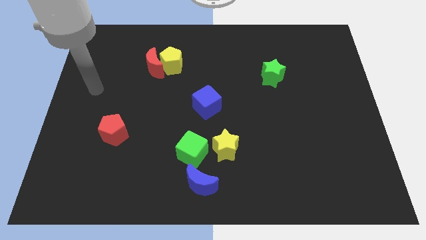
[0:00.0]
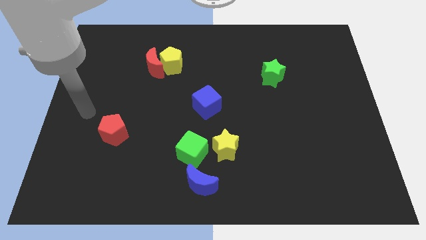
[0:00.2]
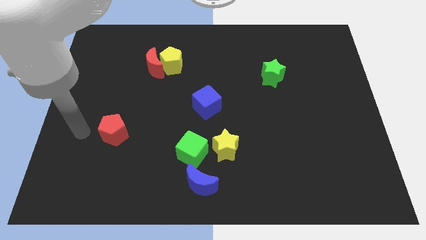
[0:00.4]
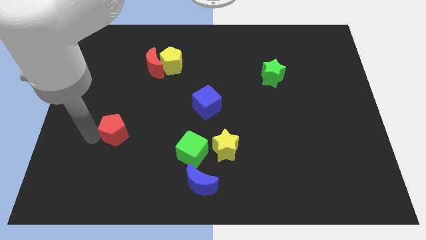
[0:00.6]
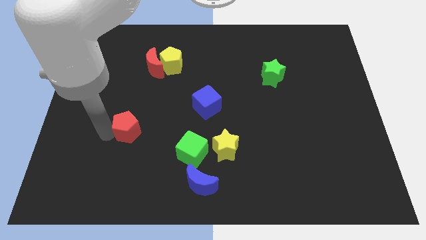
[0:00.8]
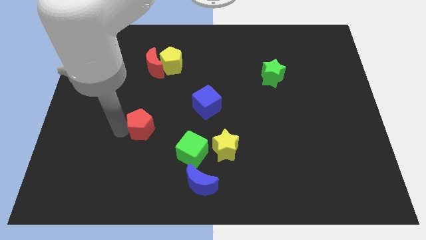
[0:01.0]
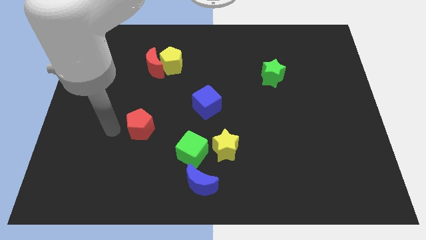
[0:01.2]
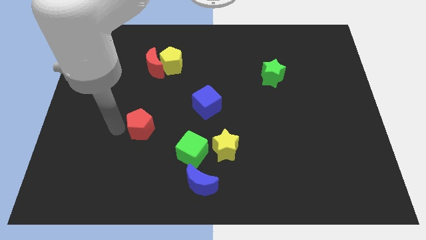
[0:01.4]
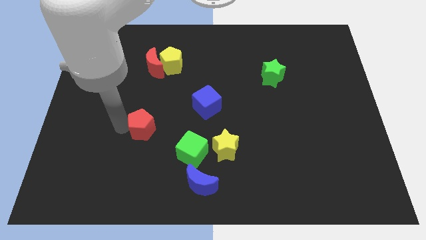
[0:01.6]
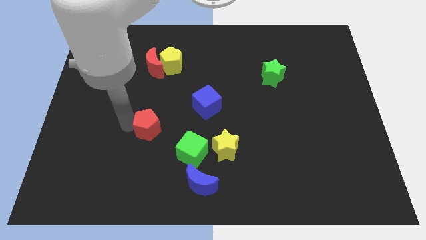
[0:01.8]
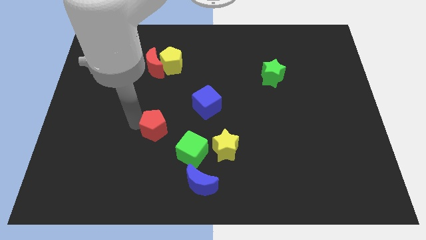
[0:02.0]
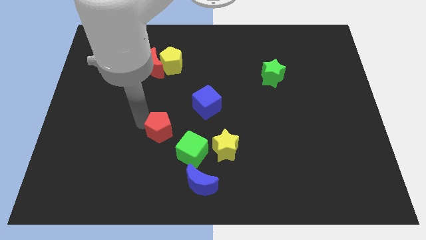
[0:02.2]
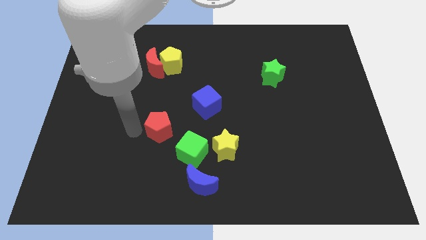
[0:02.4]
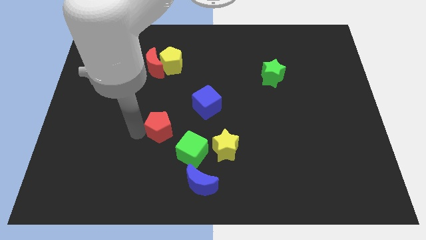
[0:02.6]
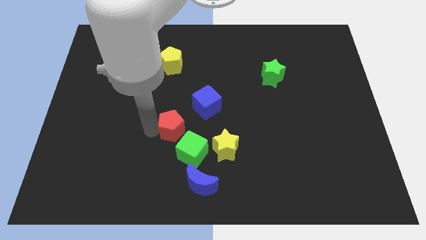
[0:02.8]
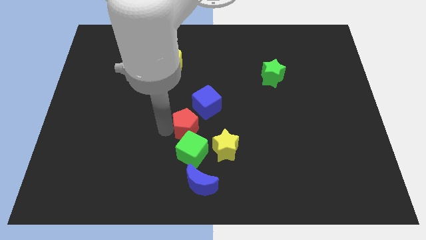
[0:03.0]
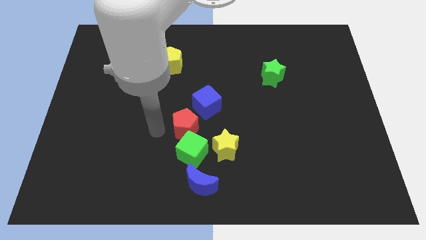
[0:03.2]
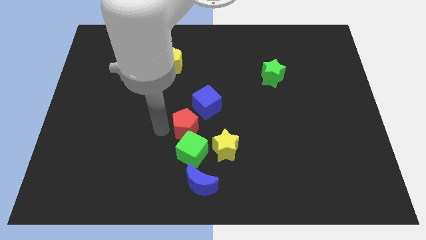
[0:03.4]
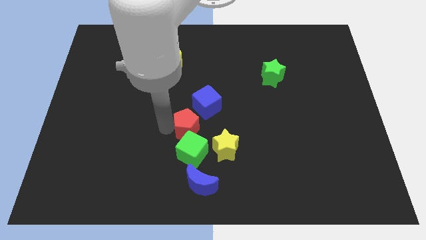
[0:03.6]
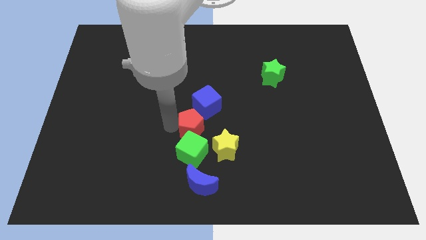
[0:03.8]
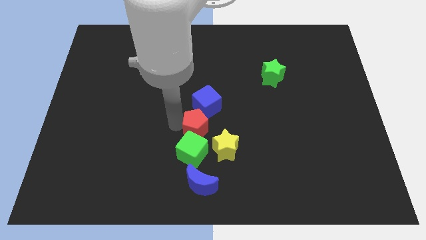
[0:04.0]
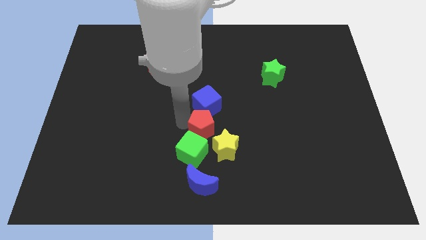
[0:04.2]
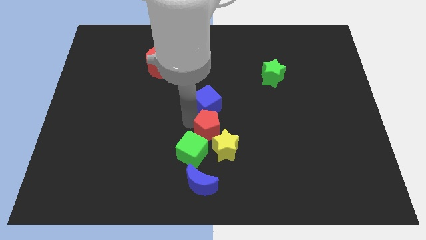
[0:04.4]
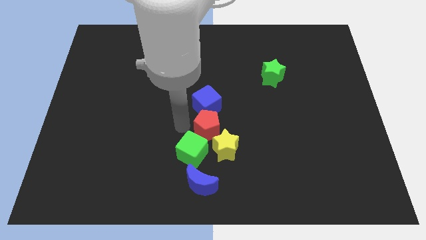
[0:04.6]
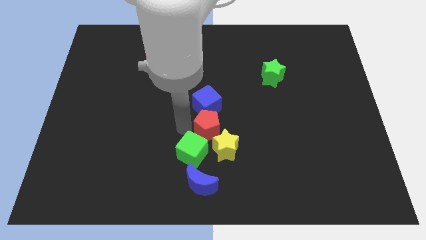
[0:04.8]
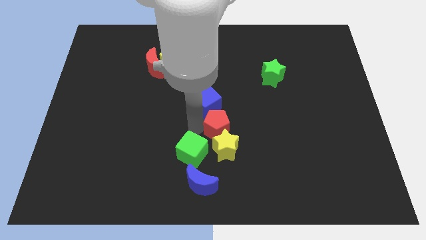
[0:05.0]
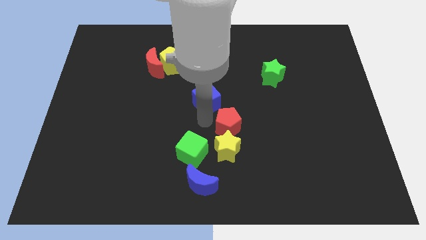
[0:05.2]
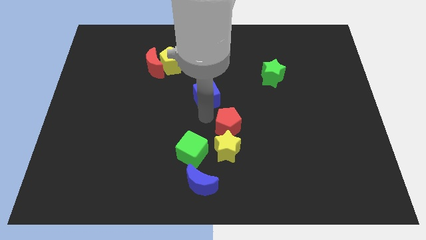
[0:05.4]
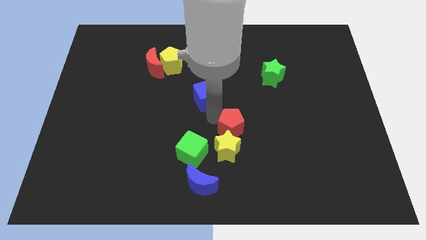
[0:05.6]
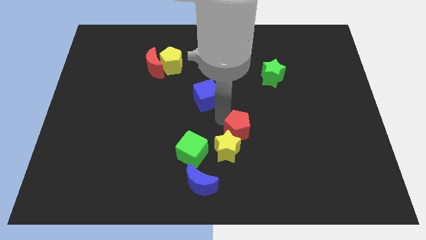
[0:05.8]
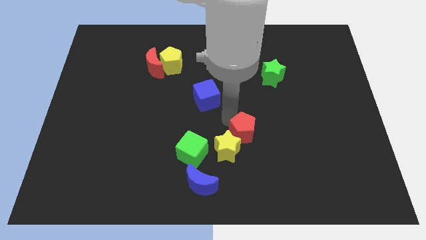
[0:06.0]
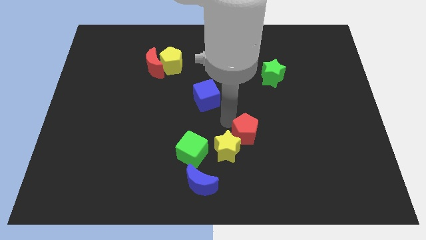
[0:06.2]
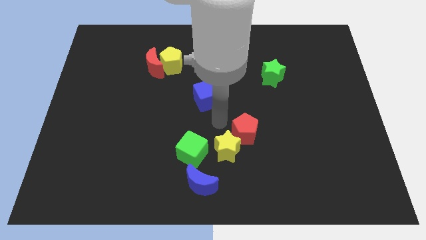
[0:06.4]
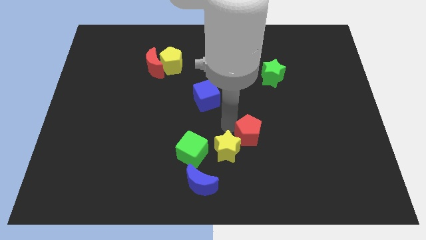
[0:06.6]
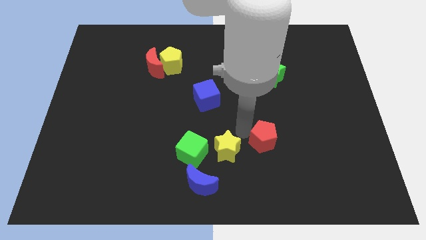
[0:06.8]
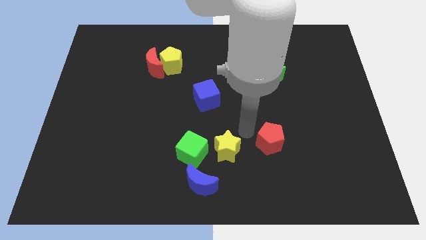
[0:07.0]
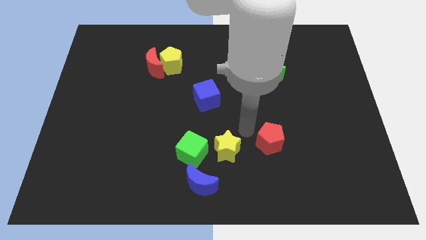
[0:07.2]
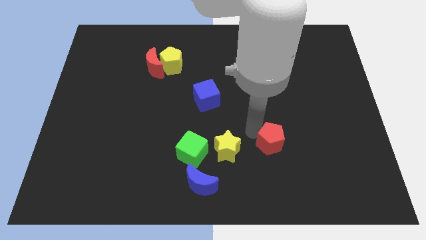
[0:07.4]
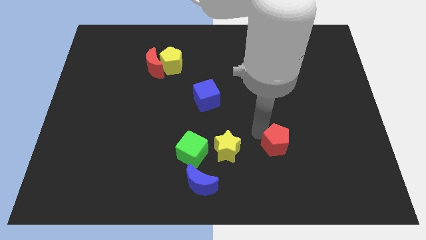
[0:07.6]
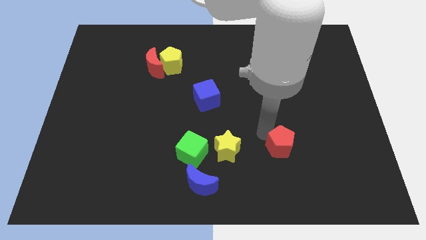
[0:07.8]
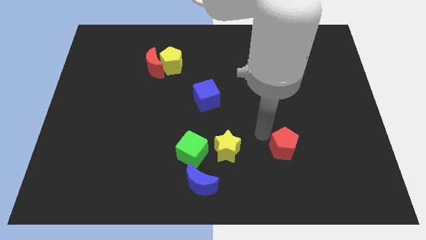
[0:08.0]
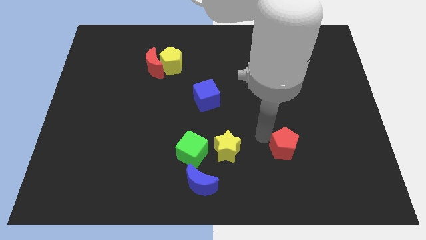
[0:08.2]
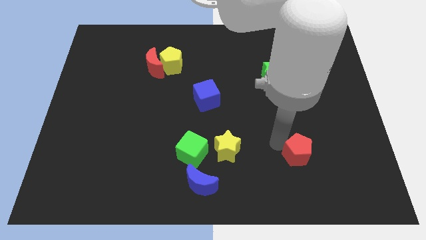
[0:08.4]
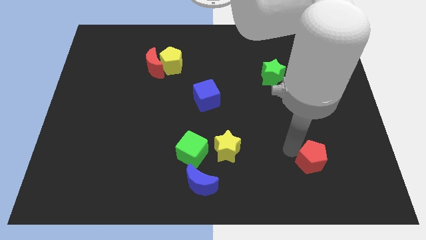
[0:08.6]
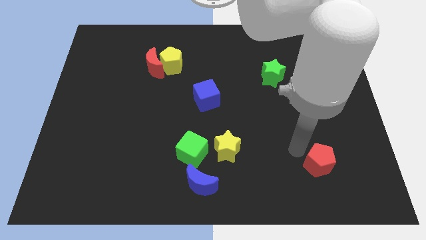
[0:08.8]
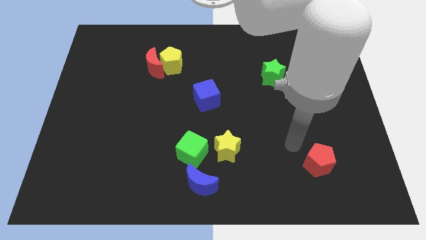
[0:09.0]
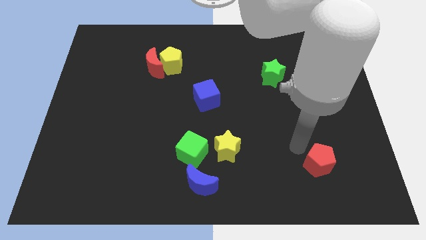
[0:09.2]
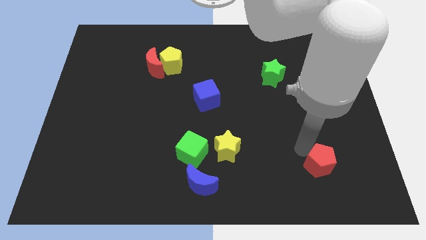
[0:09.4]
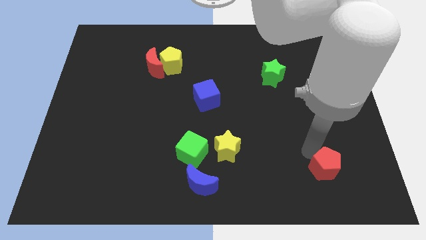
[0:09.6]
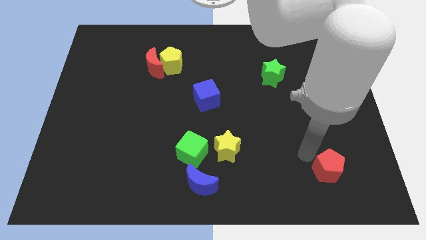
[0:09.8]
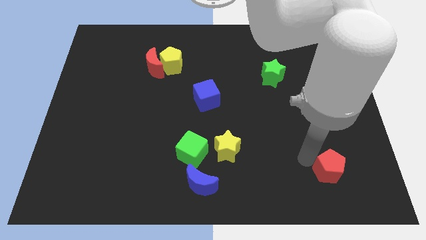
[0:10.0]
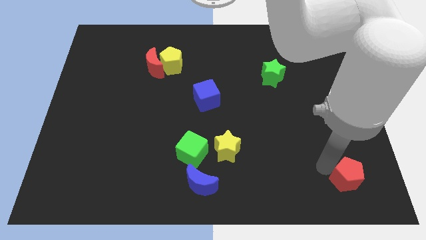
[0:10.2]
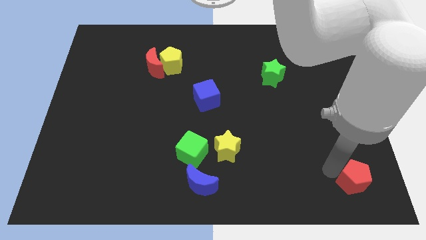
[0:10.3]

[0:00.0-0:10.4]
move the red pentagon to the bottom right of the board

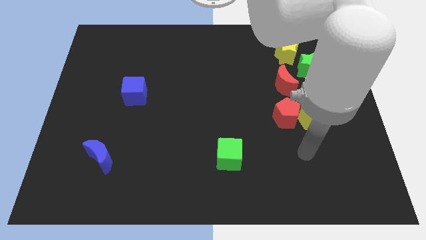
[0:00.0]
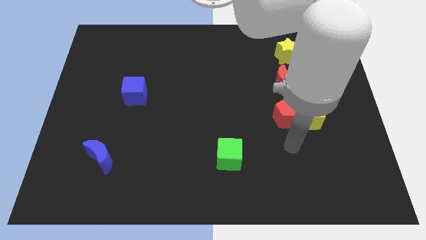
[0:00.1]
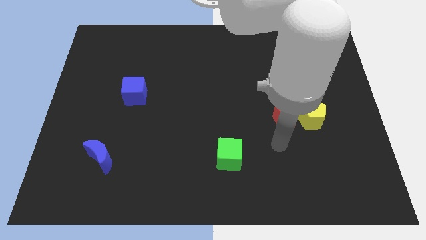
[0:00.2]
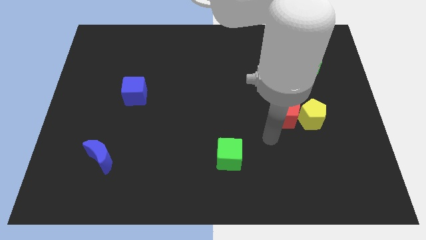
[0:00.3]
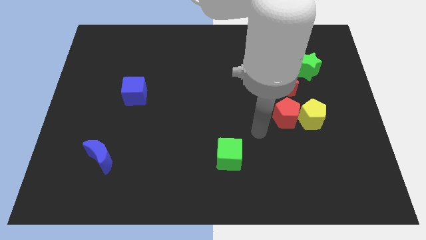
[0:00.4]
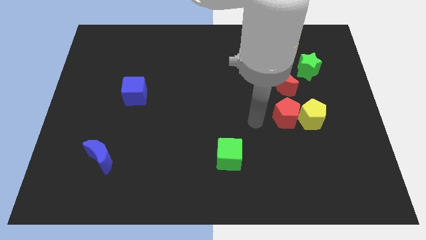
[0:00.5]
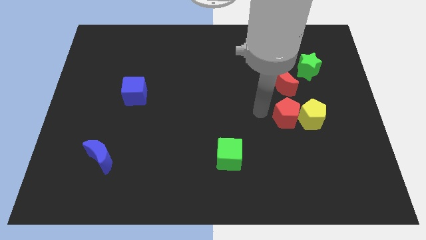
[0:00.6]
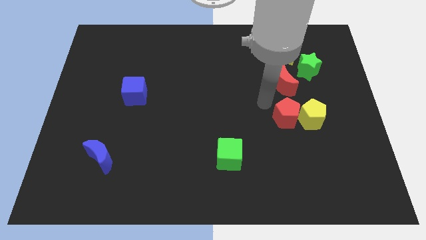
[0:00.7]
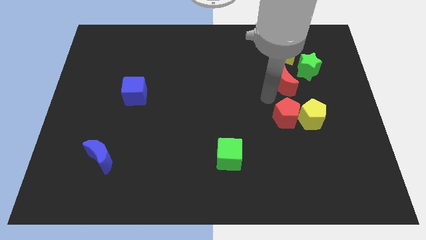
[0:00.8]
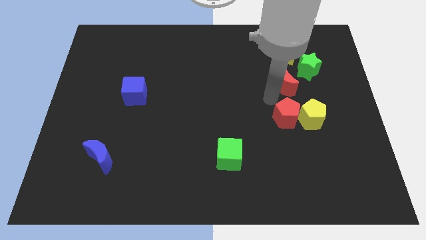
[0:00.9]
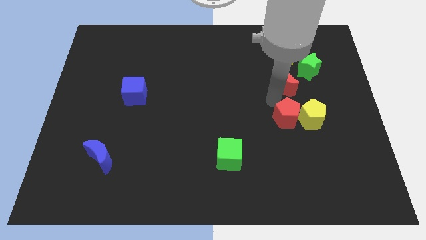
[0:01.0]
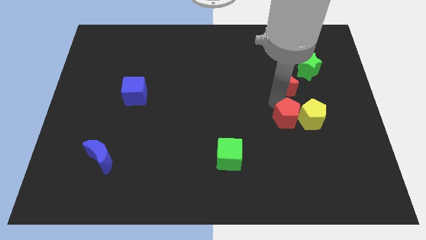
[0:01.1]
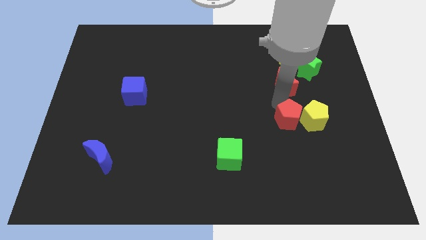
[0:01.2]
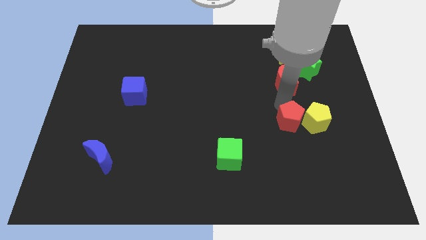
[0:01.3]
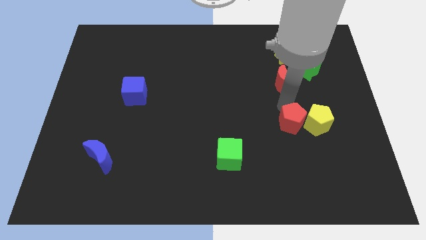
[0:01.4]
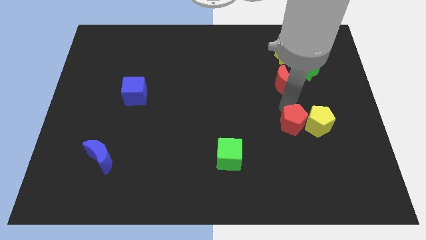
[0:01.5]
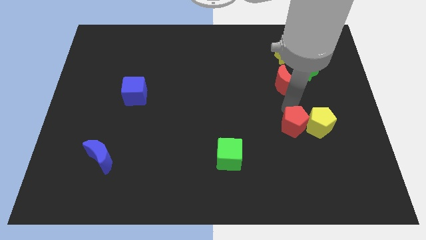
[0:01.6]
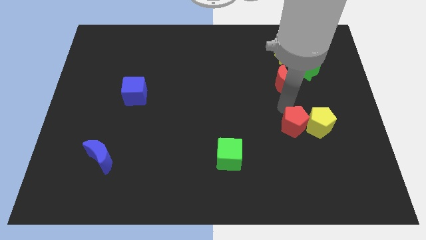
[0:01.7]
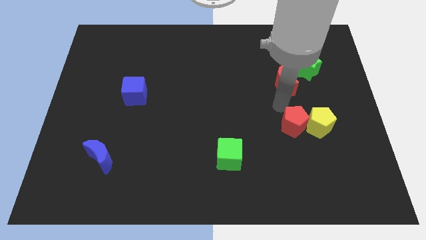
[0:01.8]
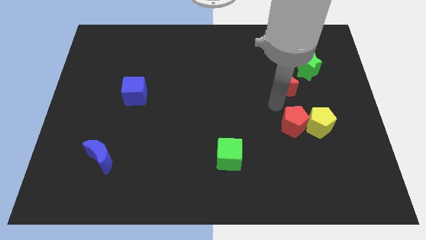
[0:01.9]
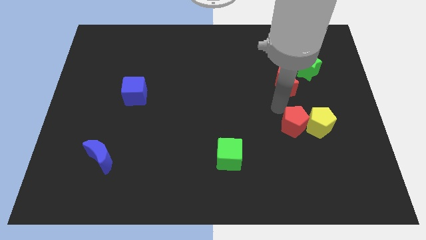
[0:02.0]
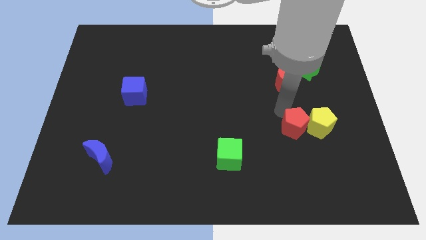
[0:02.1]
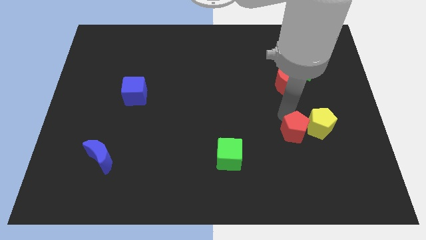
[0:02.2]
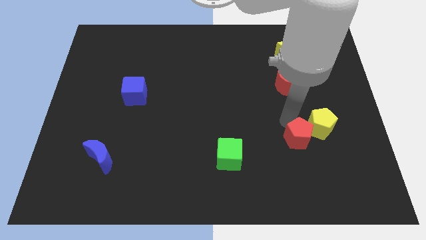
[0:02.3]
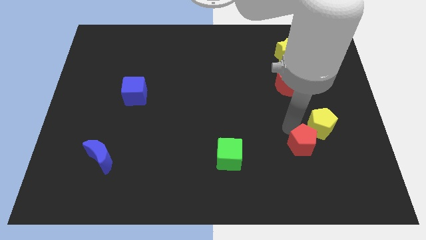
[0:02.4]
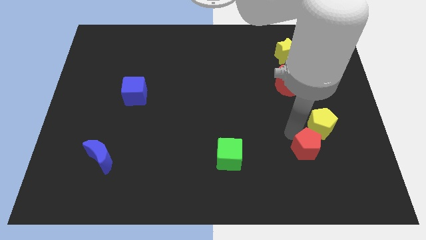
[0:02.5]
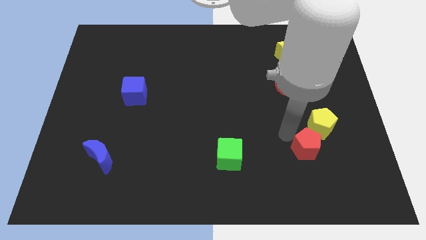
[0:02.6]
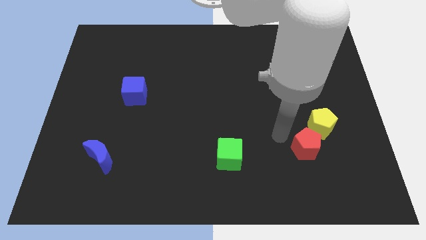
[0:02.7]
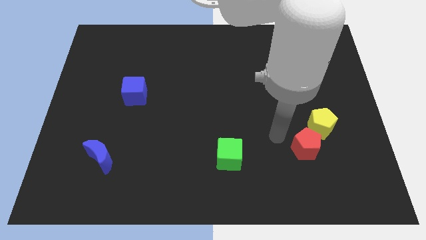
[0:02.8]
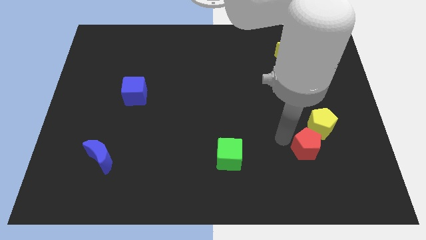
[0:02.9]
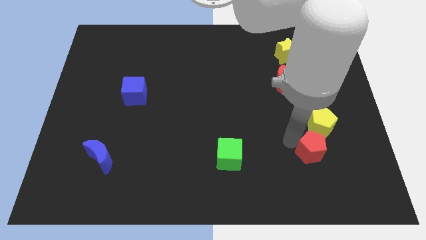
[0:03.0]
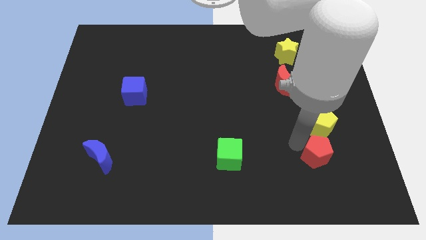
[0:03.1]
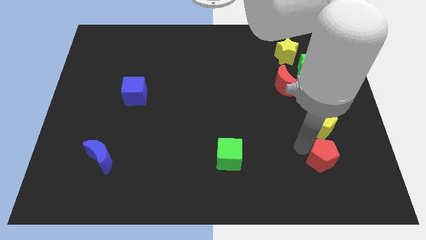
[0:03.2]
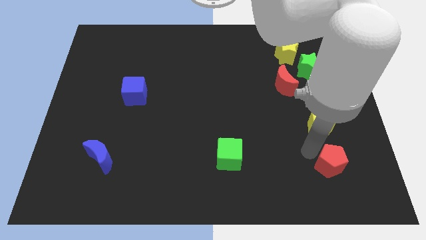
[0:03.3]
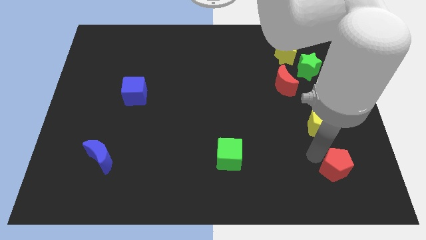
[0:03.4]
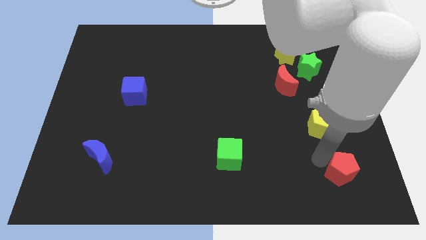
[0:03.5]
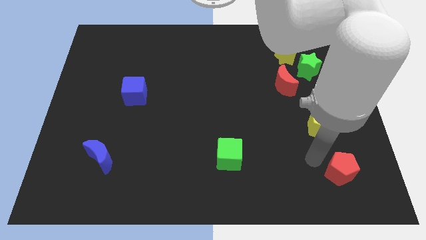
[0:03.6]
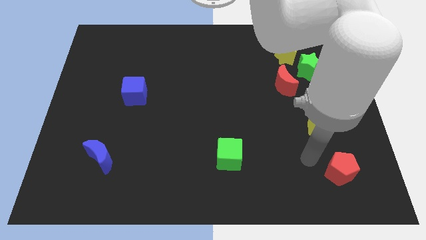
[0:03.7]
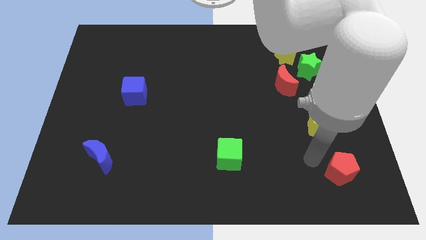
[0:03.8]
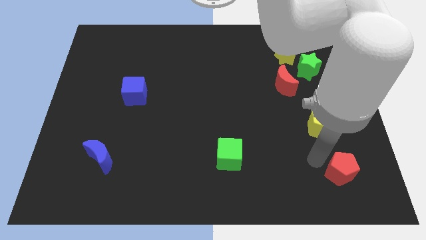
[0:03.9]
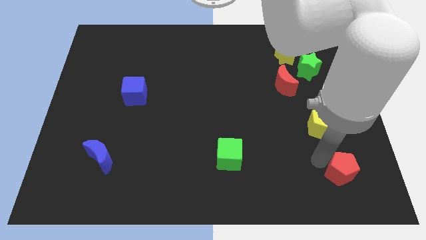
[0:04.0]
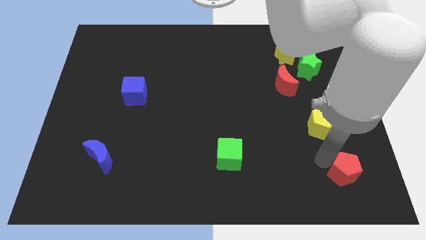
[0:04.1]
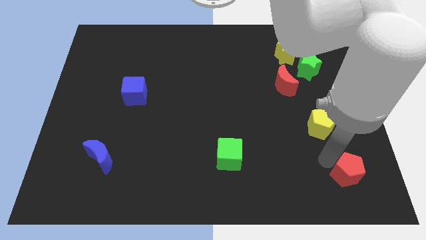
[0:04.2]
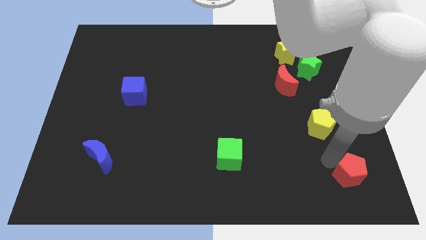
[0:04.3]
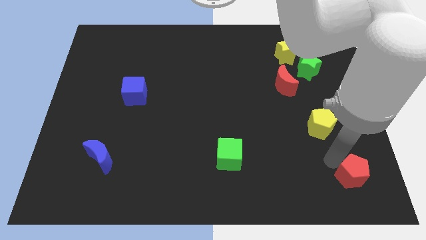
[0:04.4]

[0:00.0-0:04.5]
push the red pentagon to the bottom right of the board
